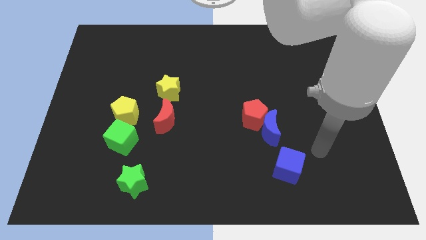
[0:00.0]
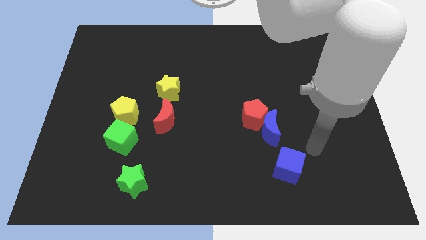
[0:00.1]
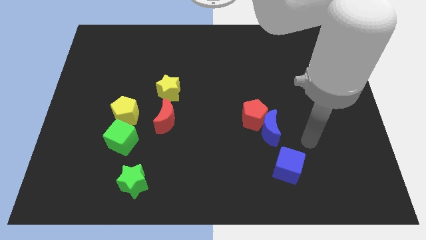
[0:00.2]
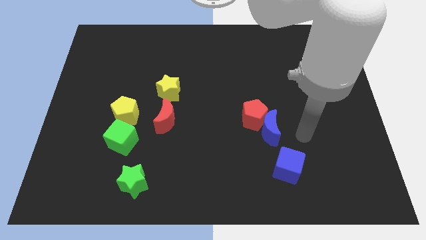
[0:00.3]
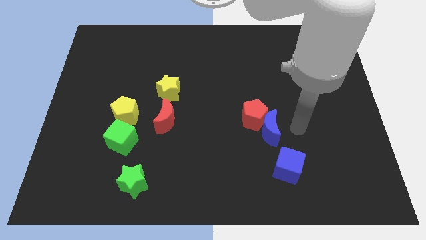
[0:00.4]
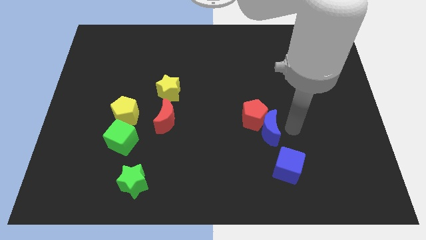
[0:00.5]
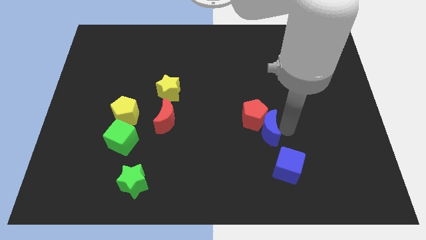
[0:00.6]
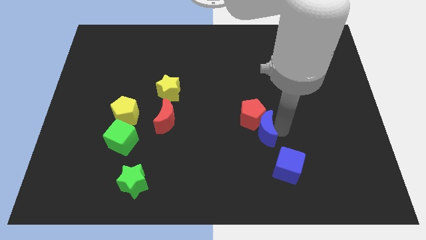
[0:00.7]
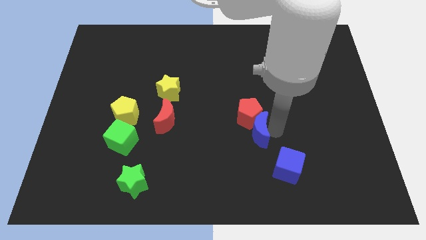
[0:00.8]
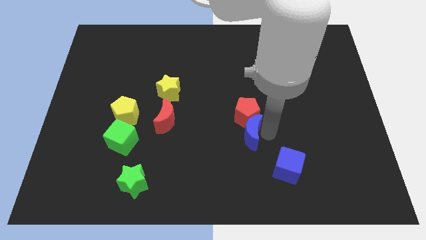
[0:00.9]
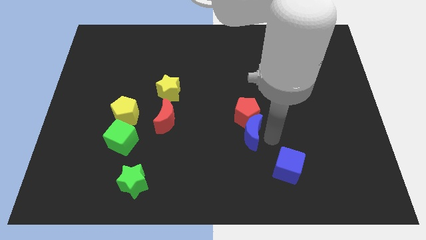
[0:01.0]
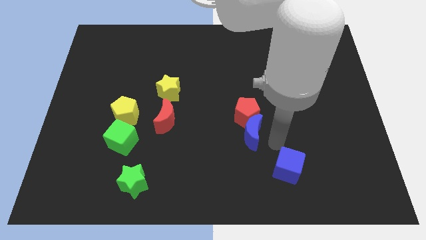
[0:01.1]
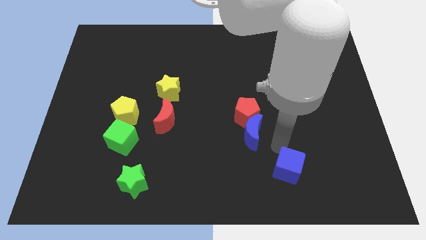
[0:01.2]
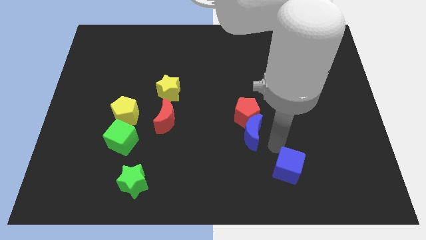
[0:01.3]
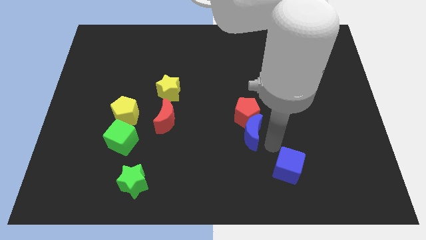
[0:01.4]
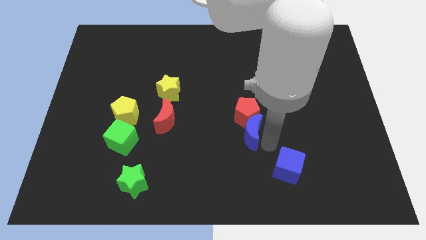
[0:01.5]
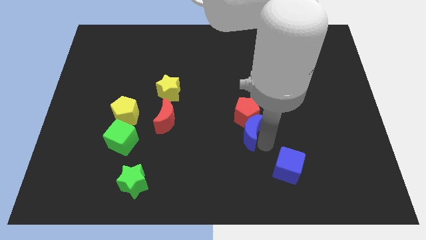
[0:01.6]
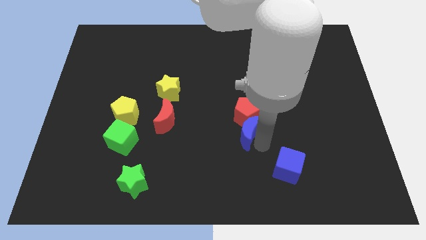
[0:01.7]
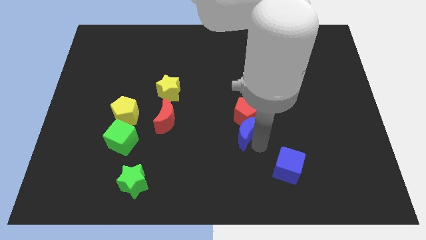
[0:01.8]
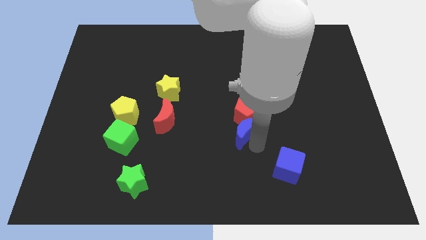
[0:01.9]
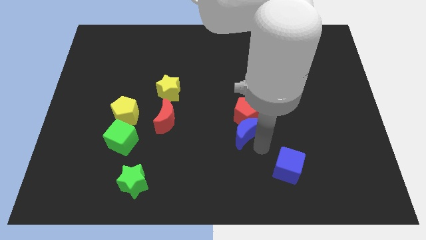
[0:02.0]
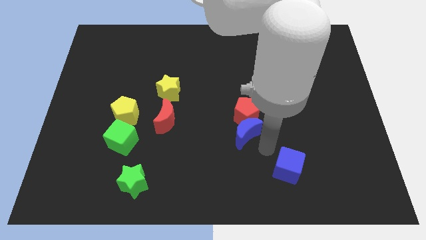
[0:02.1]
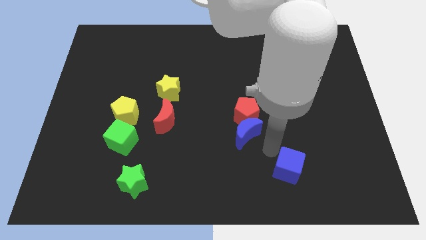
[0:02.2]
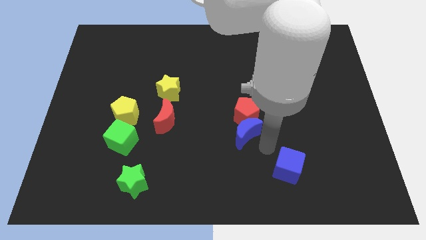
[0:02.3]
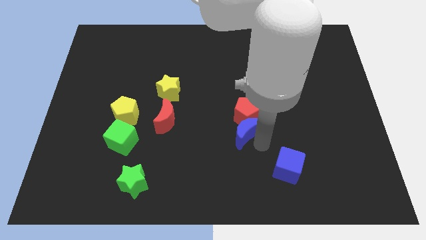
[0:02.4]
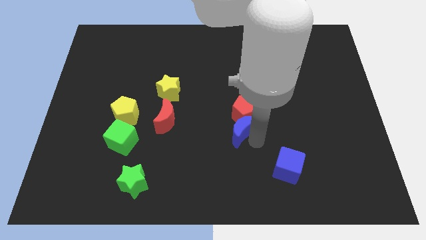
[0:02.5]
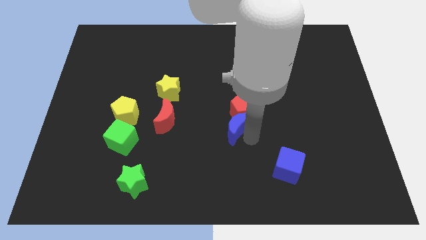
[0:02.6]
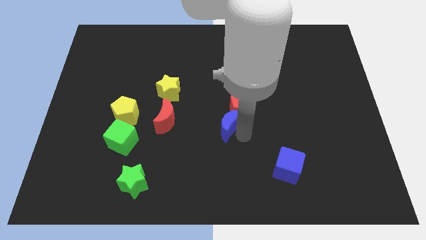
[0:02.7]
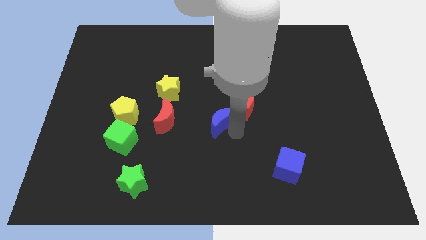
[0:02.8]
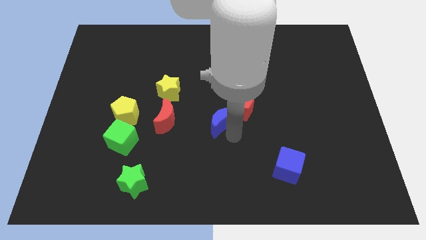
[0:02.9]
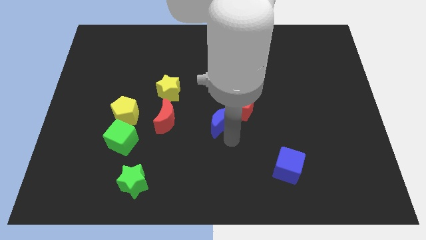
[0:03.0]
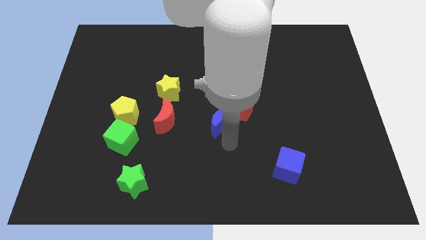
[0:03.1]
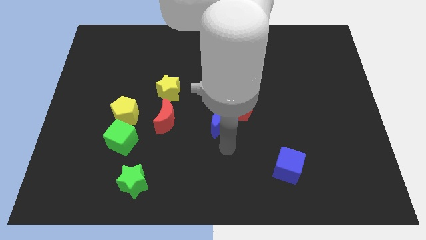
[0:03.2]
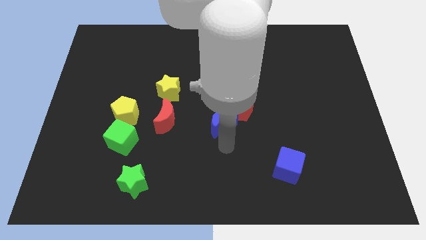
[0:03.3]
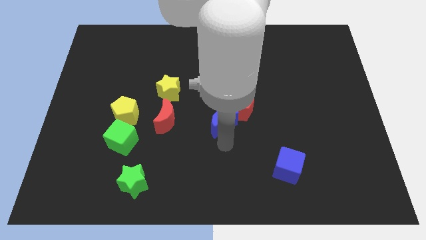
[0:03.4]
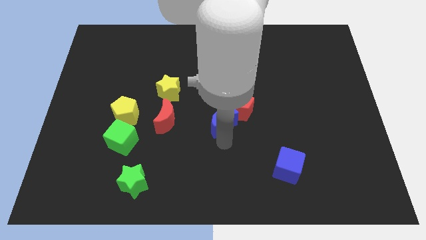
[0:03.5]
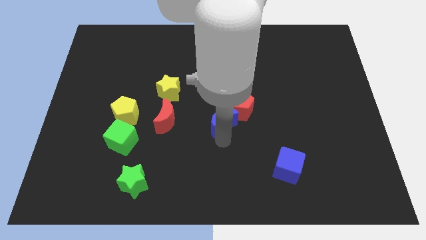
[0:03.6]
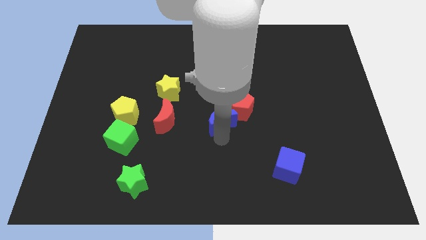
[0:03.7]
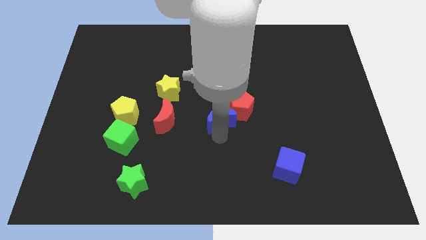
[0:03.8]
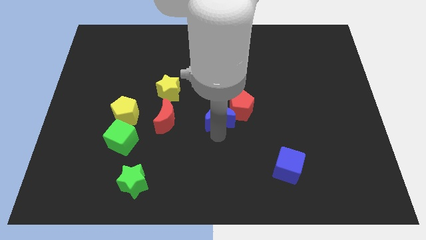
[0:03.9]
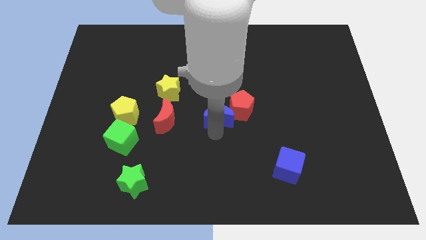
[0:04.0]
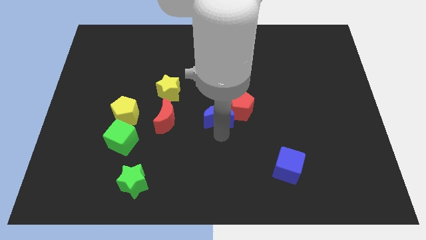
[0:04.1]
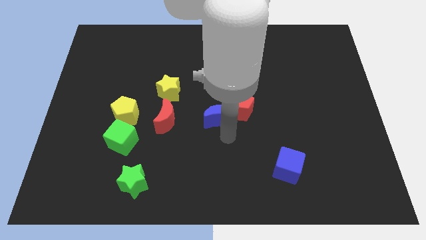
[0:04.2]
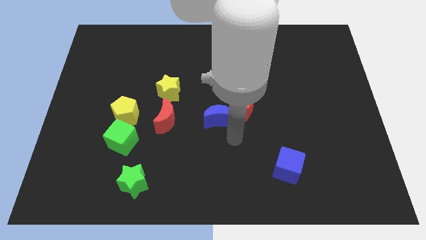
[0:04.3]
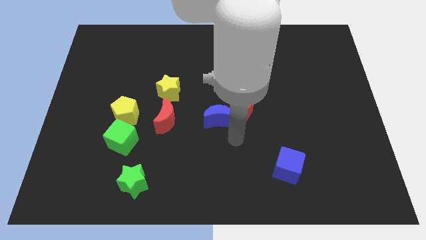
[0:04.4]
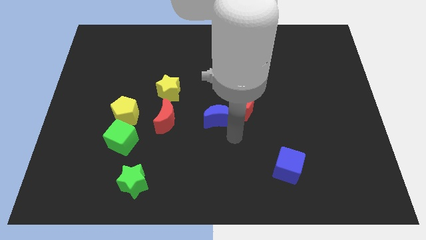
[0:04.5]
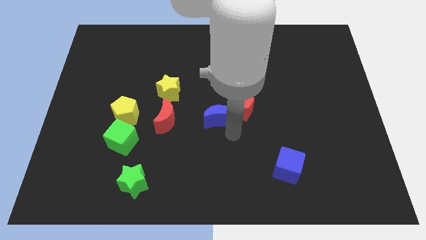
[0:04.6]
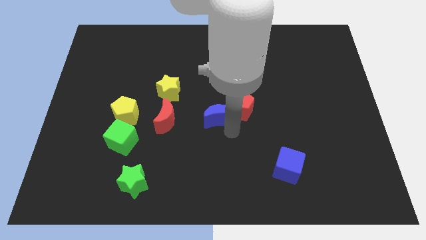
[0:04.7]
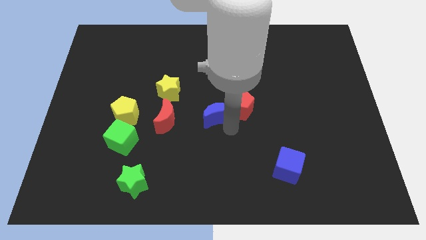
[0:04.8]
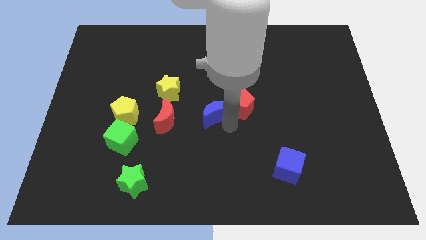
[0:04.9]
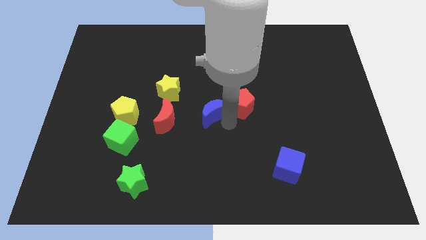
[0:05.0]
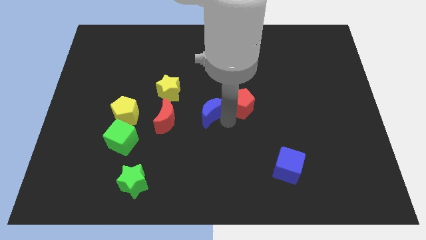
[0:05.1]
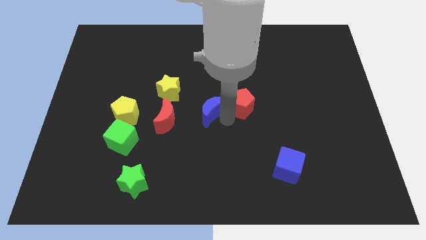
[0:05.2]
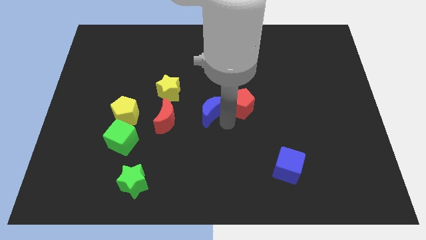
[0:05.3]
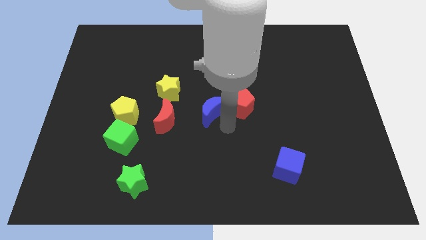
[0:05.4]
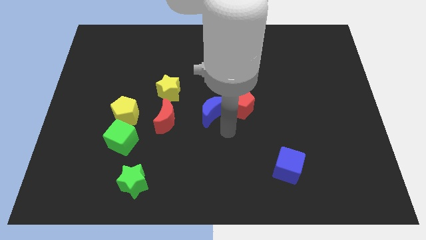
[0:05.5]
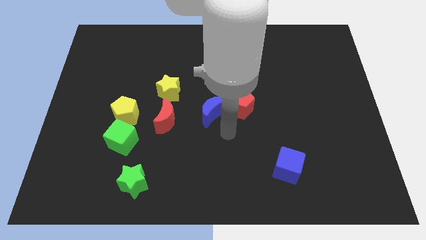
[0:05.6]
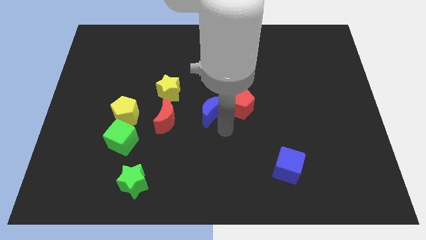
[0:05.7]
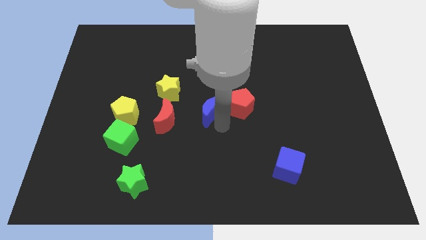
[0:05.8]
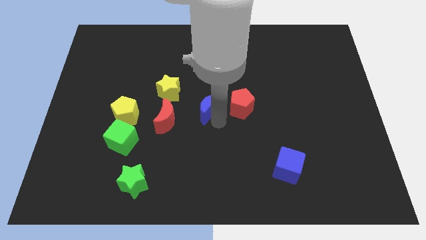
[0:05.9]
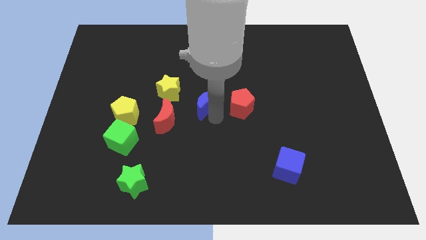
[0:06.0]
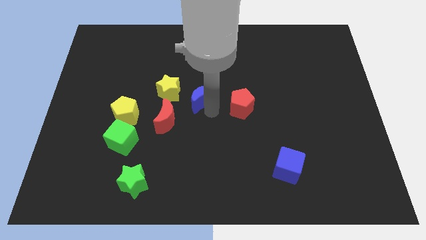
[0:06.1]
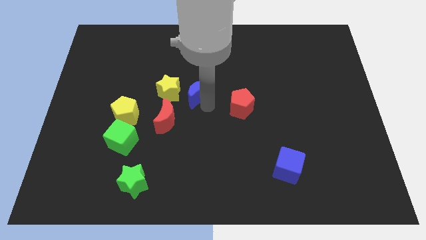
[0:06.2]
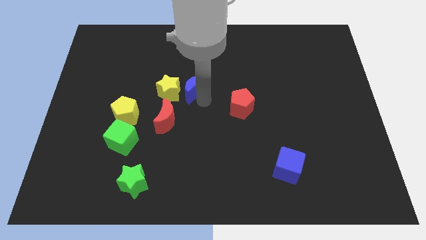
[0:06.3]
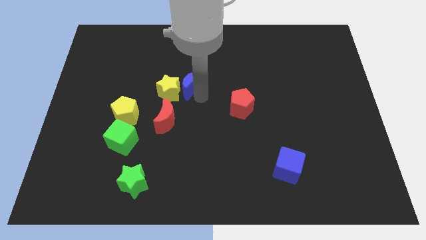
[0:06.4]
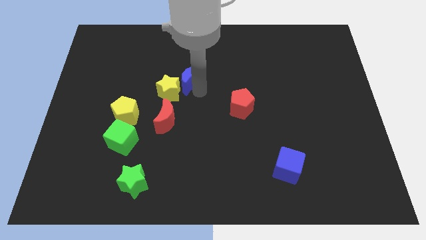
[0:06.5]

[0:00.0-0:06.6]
put the blue moon to the top side of the red moon

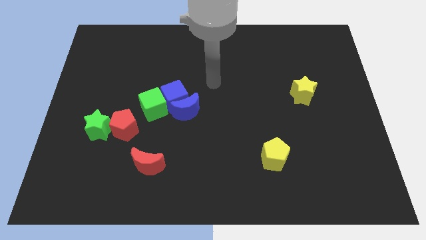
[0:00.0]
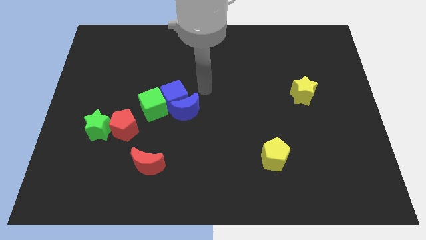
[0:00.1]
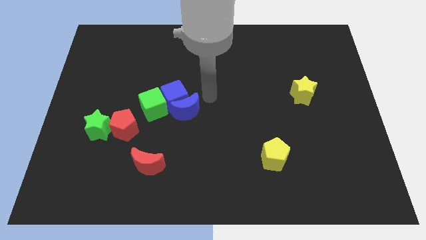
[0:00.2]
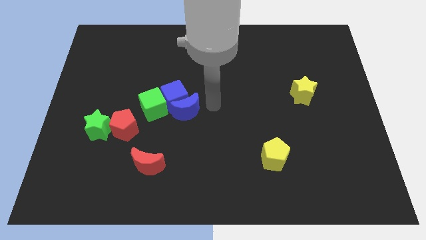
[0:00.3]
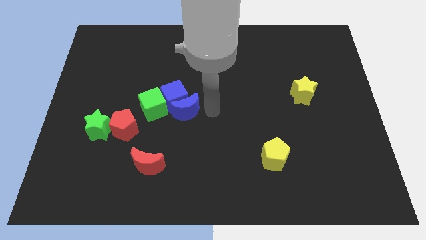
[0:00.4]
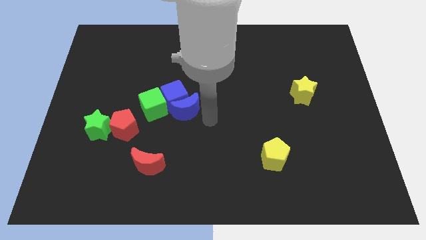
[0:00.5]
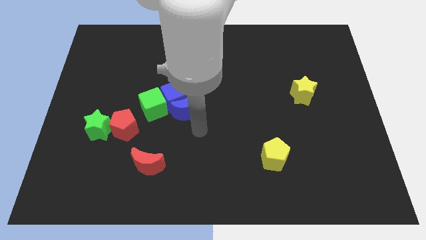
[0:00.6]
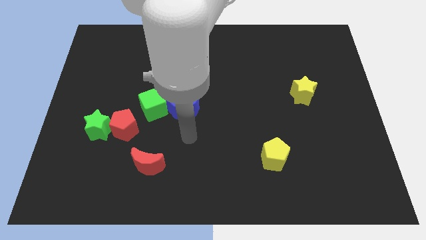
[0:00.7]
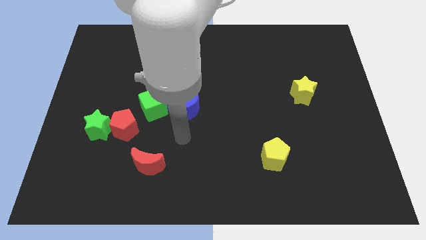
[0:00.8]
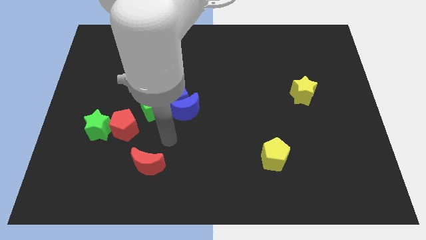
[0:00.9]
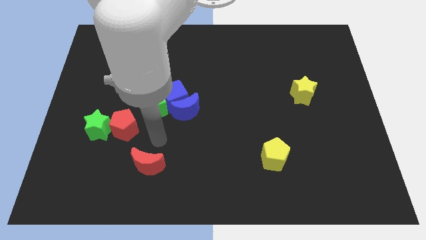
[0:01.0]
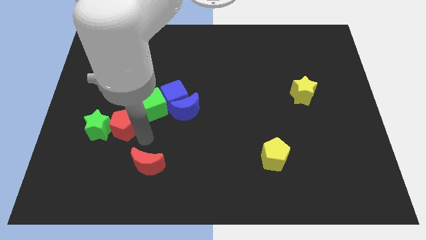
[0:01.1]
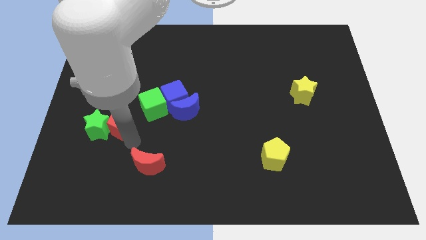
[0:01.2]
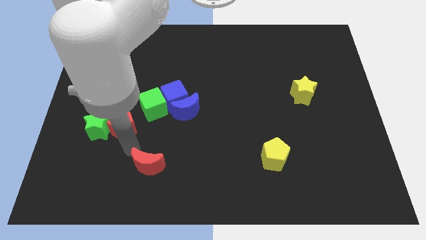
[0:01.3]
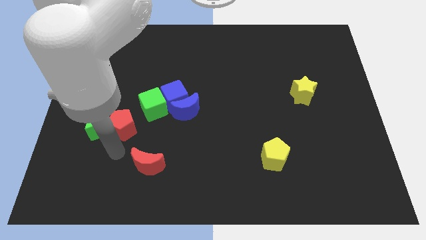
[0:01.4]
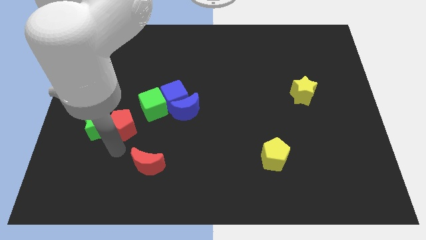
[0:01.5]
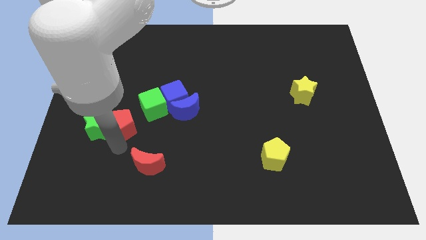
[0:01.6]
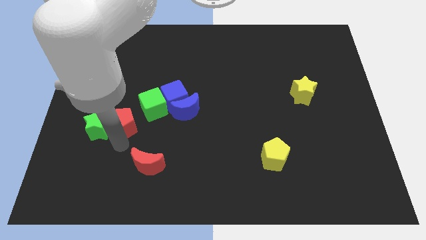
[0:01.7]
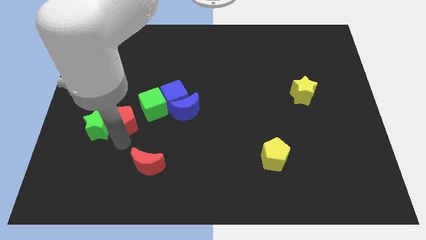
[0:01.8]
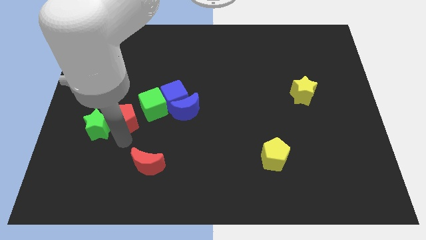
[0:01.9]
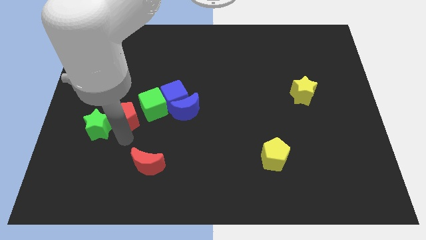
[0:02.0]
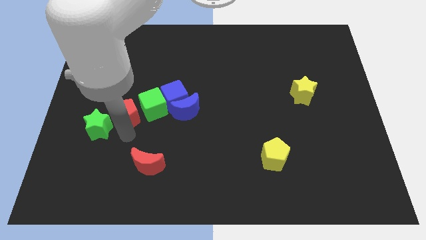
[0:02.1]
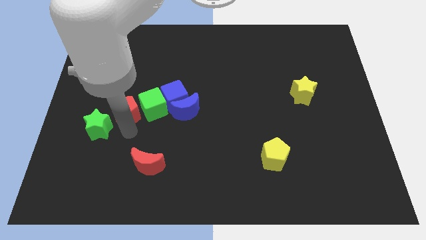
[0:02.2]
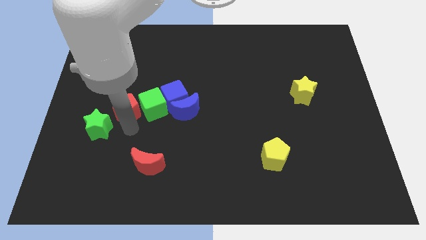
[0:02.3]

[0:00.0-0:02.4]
slide the red pentagon to the top left side of the green cube
